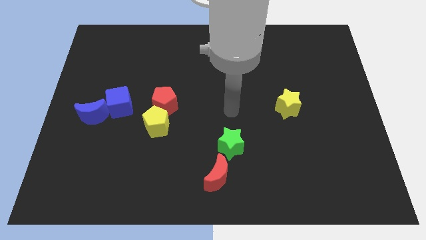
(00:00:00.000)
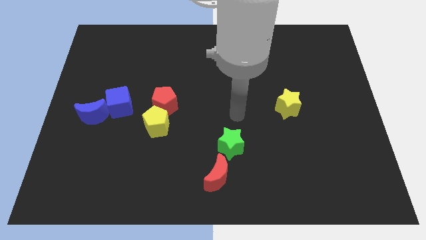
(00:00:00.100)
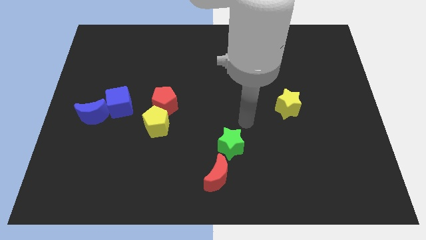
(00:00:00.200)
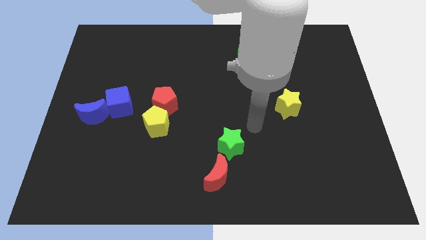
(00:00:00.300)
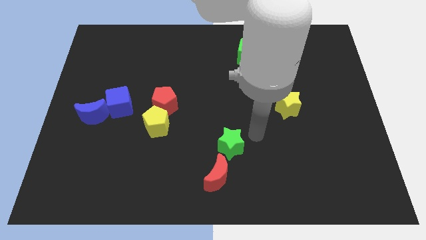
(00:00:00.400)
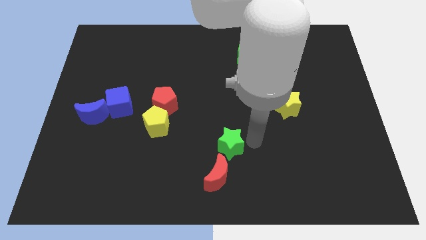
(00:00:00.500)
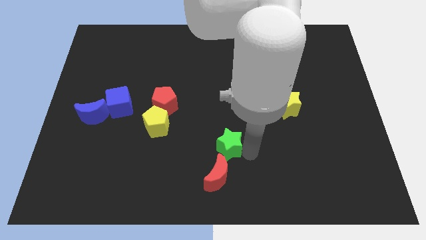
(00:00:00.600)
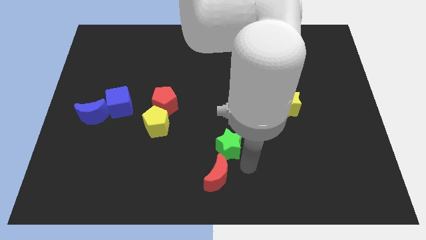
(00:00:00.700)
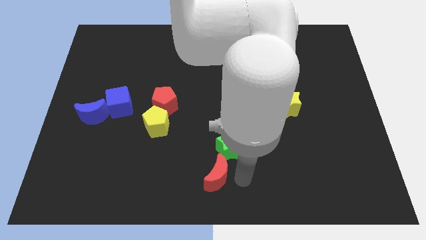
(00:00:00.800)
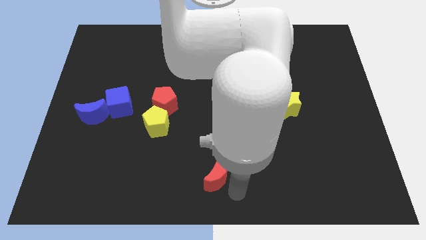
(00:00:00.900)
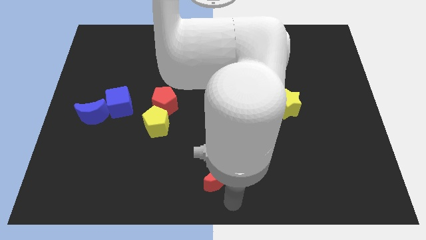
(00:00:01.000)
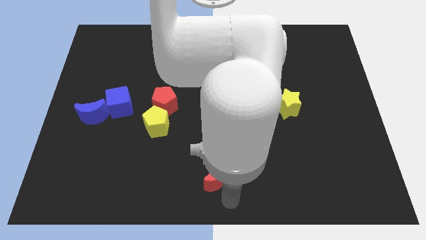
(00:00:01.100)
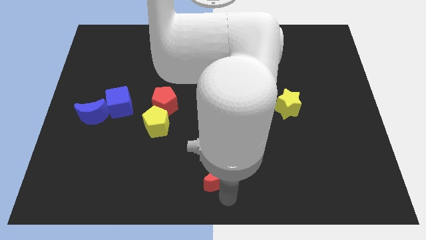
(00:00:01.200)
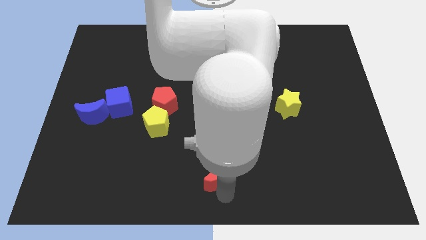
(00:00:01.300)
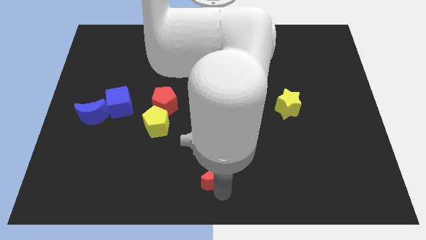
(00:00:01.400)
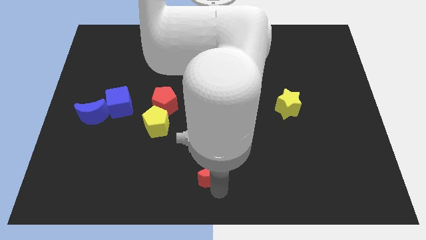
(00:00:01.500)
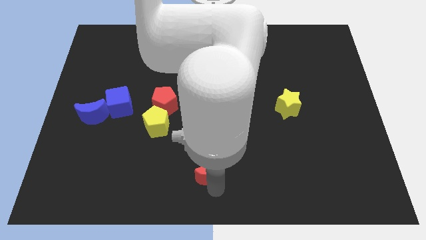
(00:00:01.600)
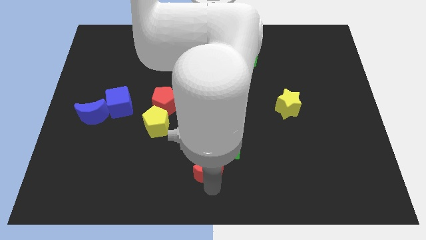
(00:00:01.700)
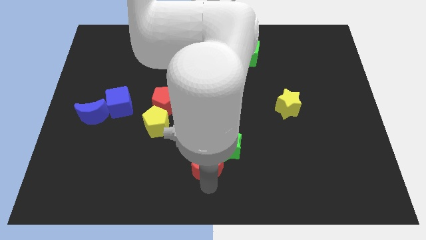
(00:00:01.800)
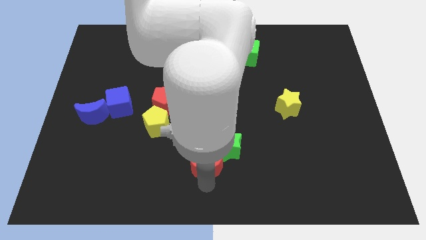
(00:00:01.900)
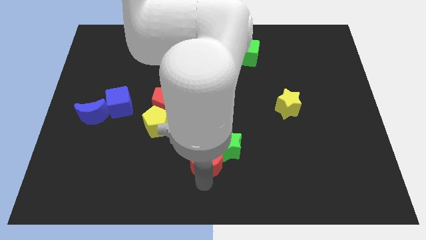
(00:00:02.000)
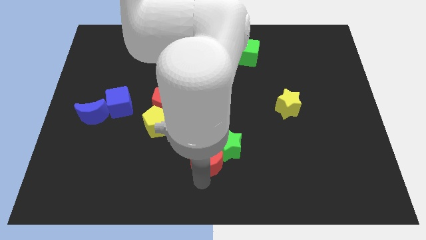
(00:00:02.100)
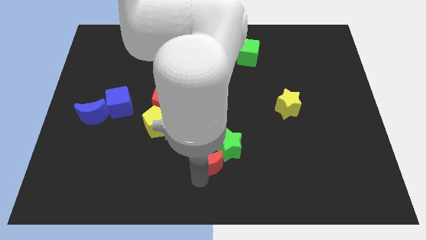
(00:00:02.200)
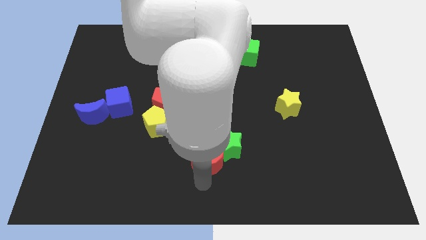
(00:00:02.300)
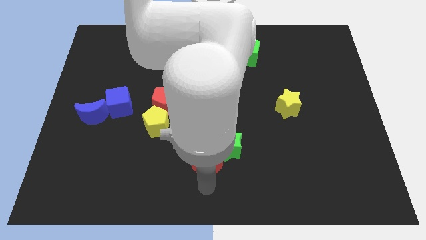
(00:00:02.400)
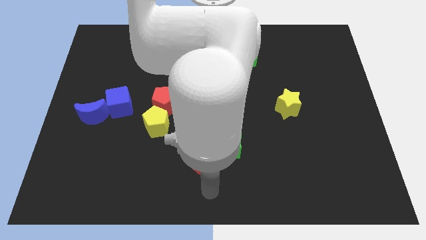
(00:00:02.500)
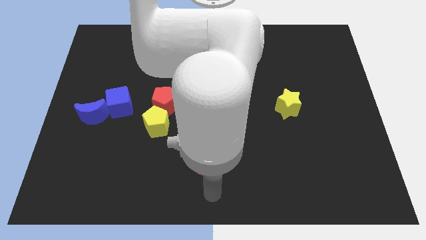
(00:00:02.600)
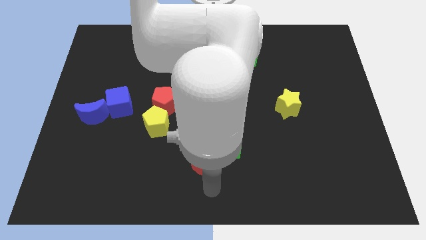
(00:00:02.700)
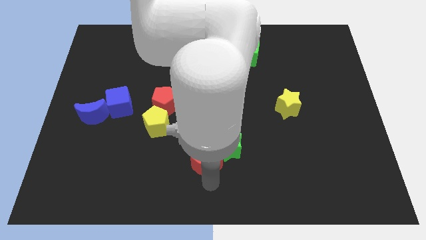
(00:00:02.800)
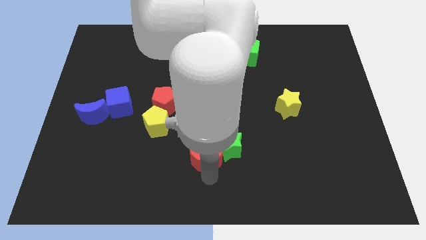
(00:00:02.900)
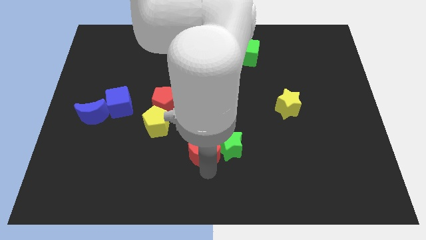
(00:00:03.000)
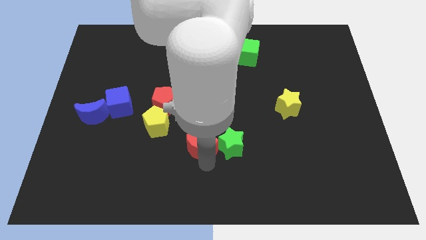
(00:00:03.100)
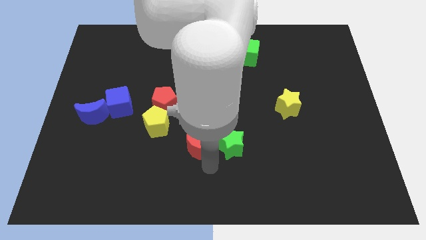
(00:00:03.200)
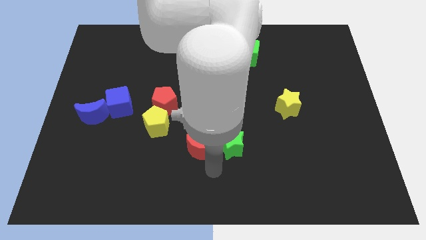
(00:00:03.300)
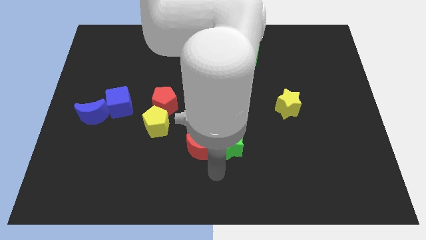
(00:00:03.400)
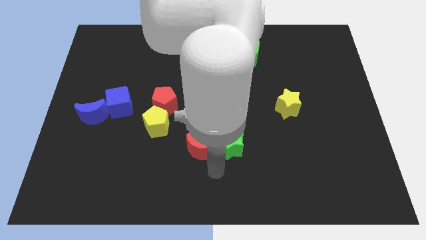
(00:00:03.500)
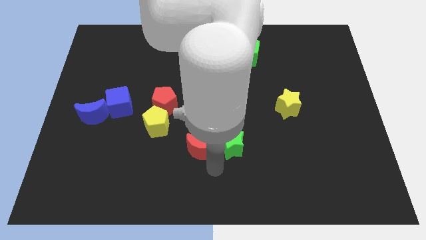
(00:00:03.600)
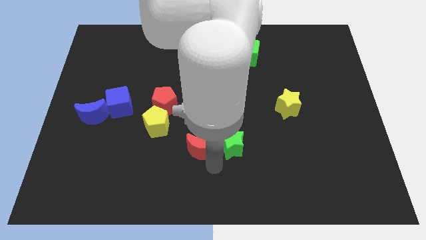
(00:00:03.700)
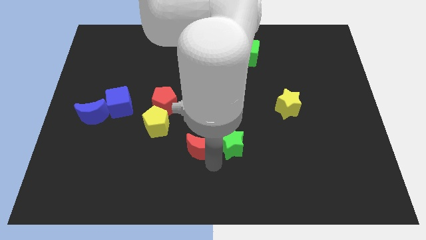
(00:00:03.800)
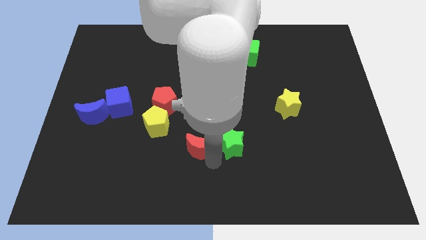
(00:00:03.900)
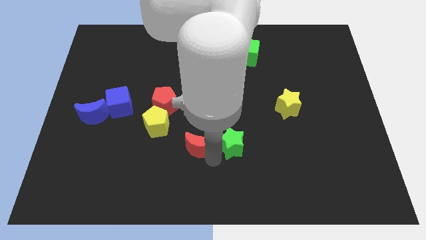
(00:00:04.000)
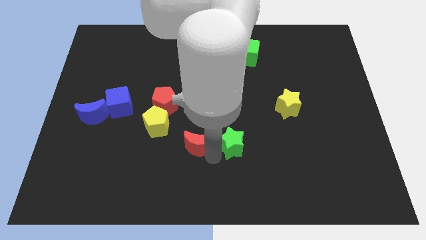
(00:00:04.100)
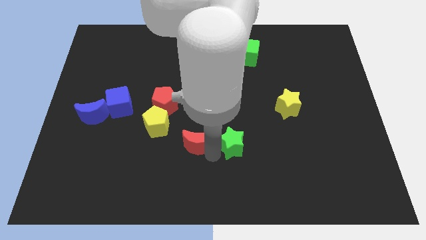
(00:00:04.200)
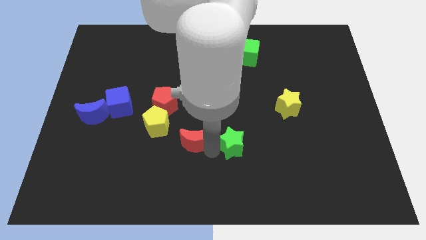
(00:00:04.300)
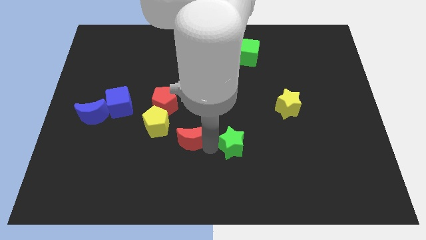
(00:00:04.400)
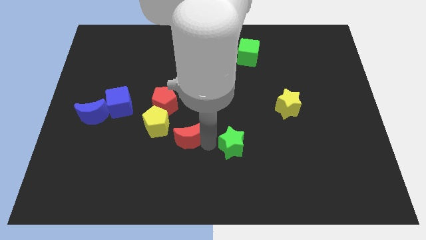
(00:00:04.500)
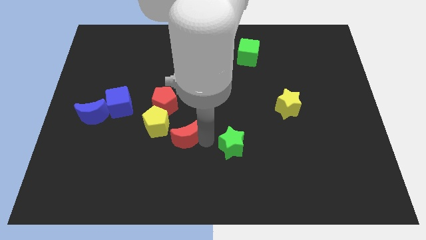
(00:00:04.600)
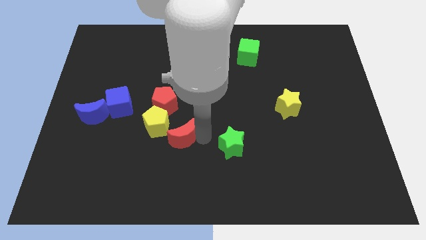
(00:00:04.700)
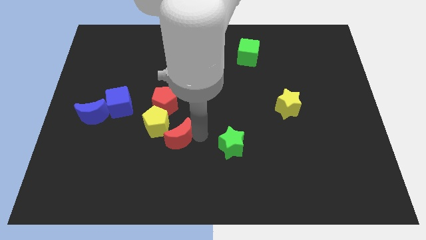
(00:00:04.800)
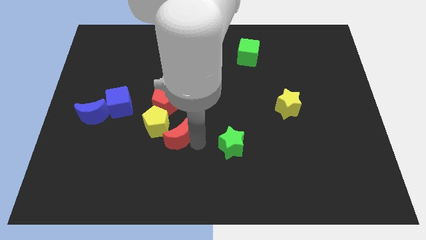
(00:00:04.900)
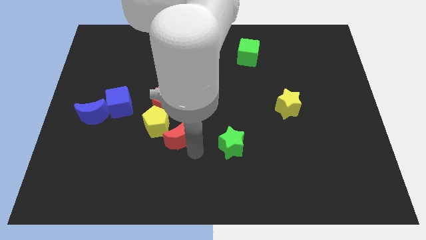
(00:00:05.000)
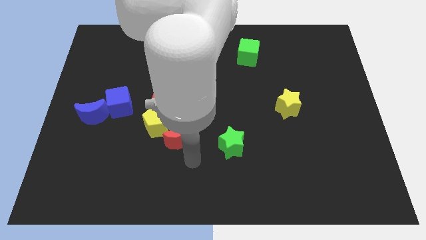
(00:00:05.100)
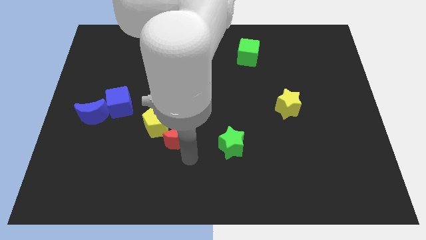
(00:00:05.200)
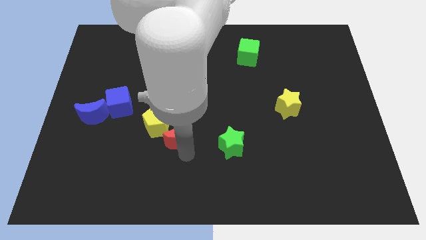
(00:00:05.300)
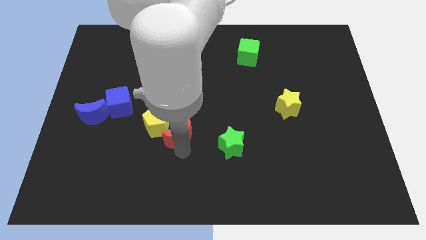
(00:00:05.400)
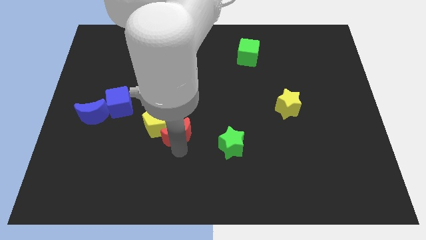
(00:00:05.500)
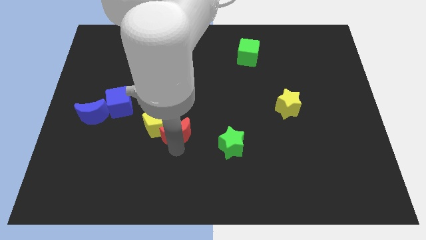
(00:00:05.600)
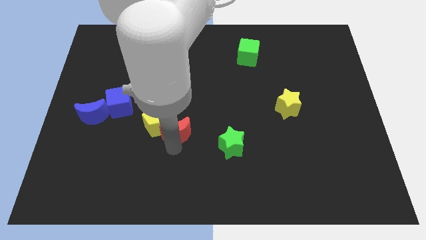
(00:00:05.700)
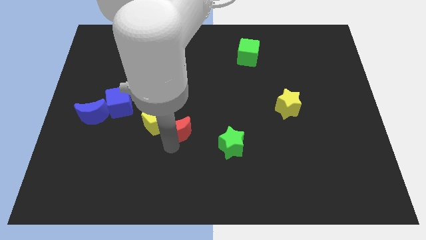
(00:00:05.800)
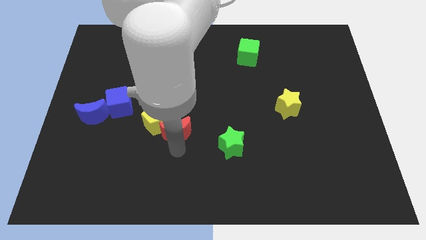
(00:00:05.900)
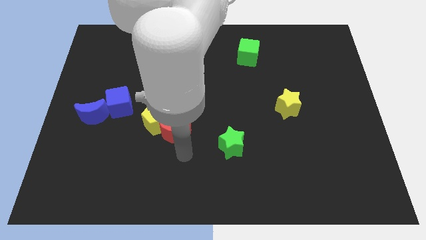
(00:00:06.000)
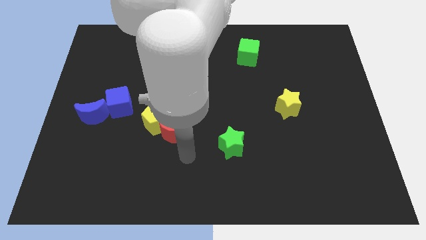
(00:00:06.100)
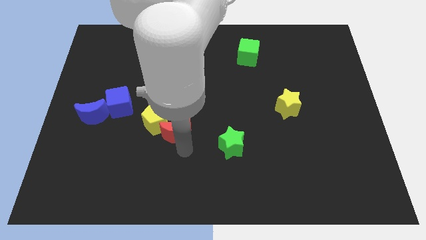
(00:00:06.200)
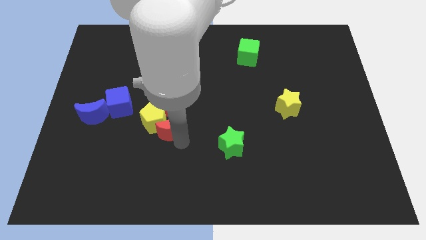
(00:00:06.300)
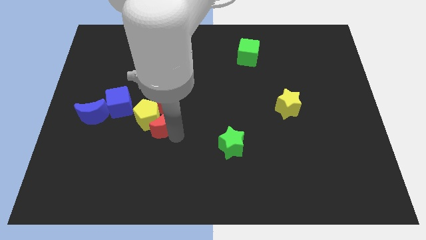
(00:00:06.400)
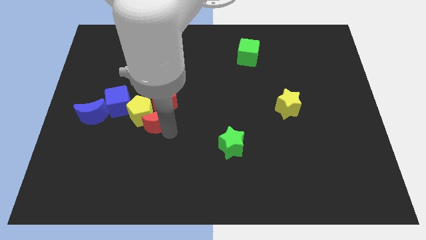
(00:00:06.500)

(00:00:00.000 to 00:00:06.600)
put the red moon next to the red pentagon

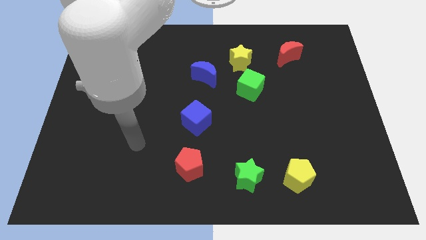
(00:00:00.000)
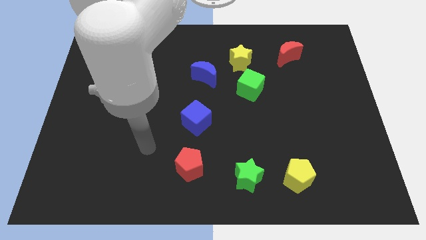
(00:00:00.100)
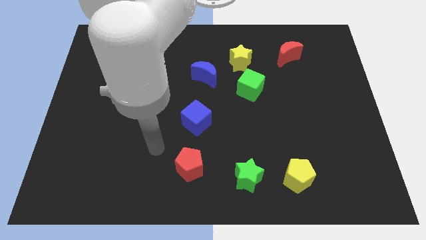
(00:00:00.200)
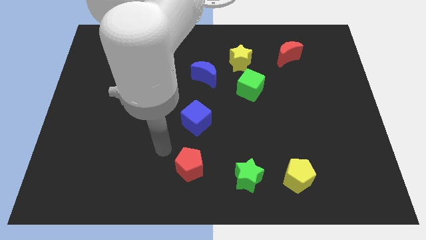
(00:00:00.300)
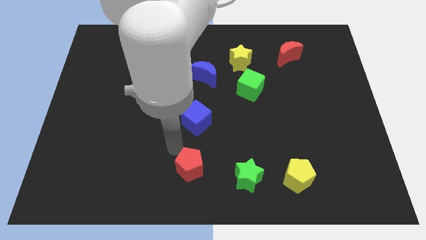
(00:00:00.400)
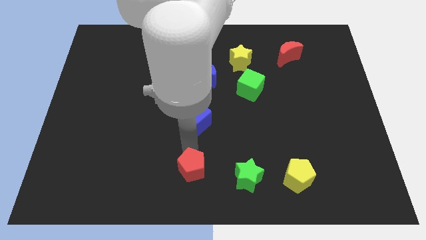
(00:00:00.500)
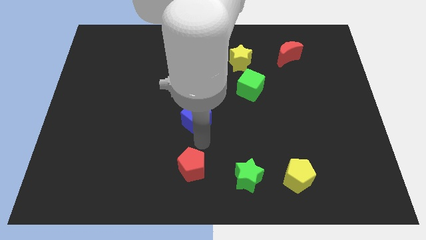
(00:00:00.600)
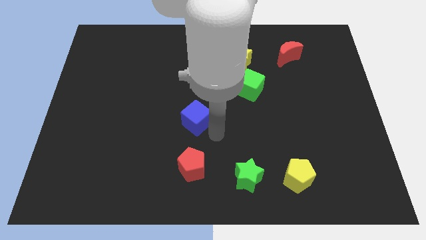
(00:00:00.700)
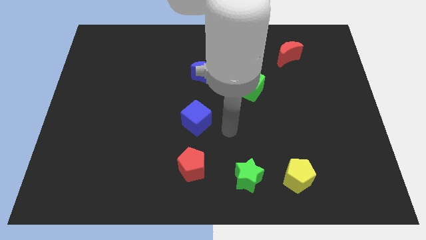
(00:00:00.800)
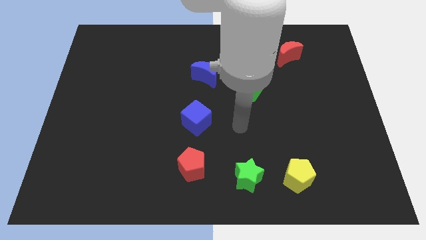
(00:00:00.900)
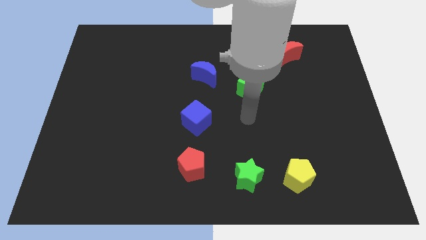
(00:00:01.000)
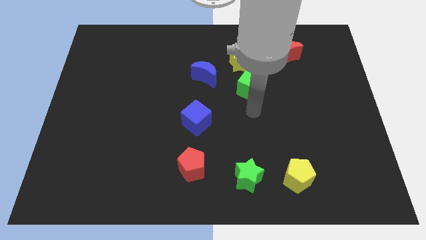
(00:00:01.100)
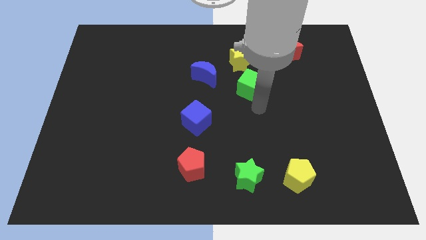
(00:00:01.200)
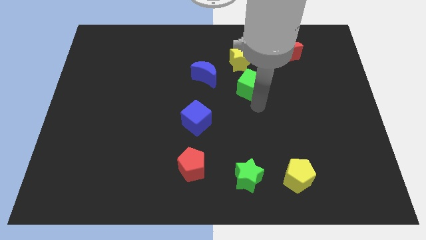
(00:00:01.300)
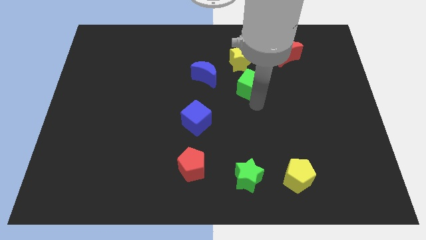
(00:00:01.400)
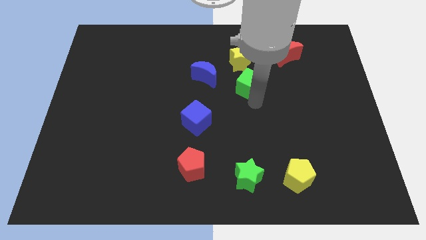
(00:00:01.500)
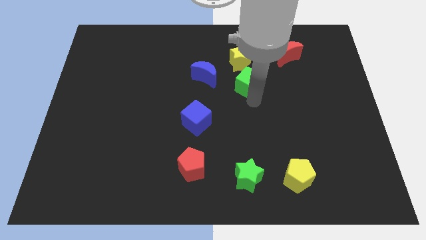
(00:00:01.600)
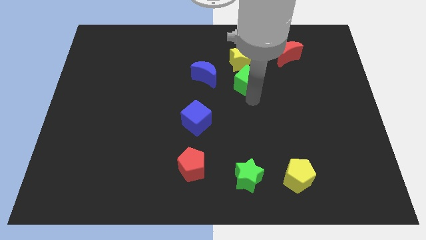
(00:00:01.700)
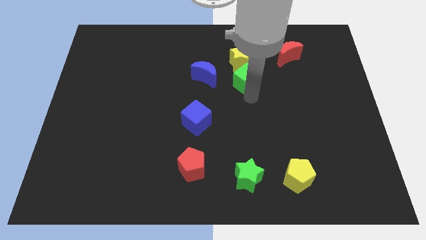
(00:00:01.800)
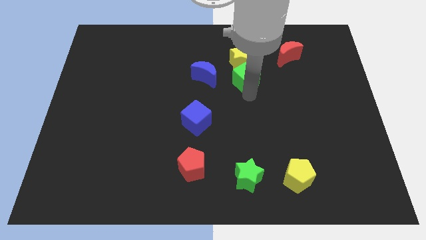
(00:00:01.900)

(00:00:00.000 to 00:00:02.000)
slide the green cube towards the yellow star
